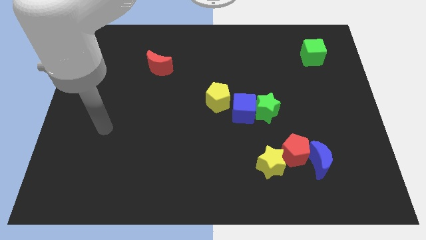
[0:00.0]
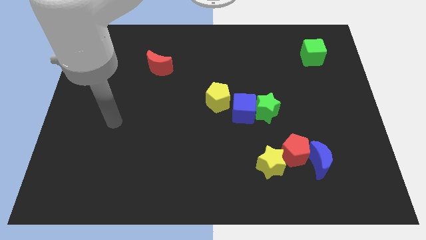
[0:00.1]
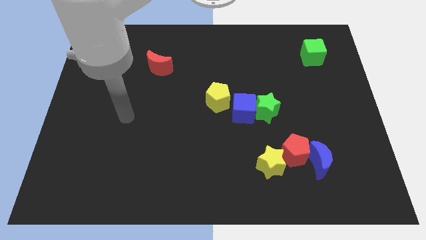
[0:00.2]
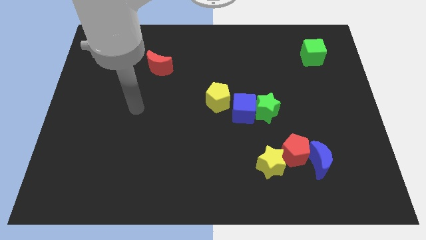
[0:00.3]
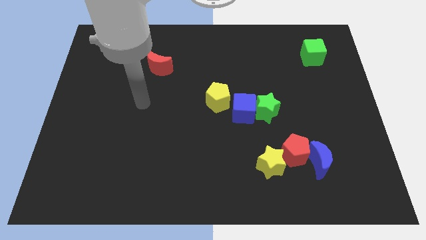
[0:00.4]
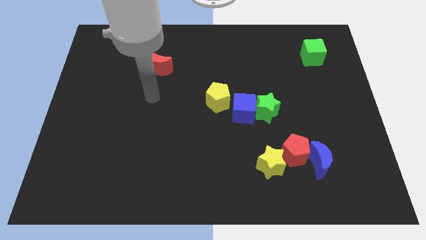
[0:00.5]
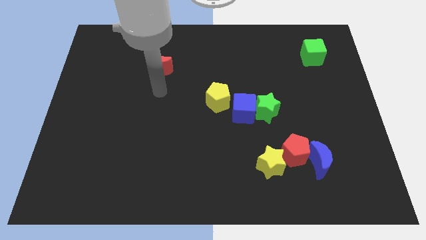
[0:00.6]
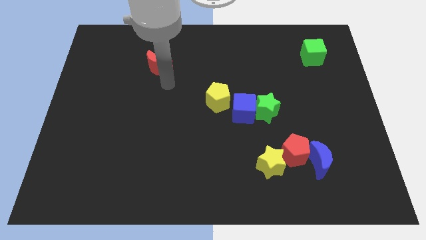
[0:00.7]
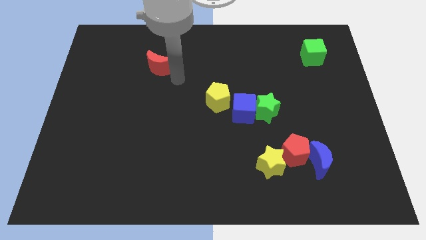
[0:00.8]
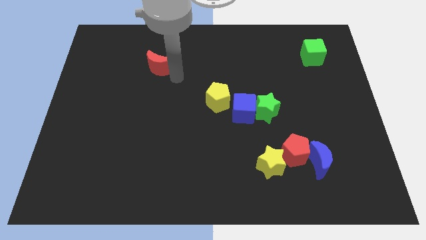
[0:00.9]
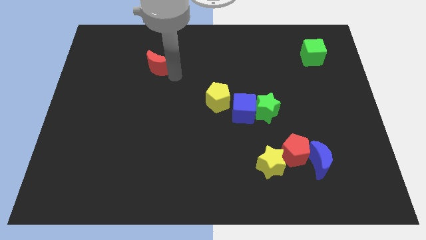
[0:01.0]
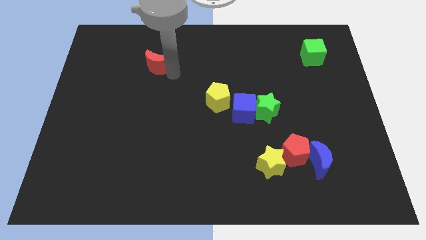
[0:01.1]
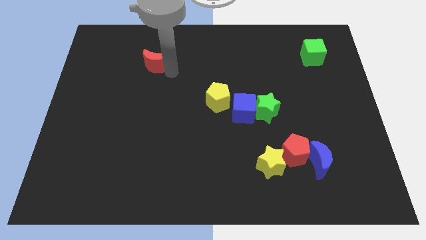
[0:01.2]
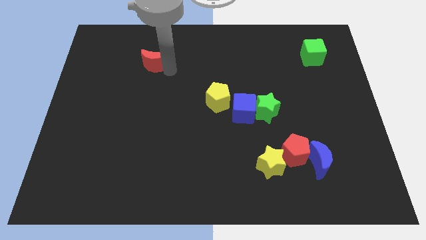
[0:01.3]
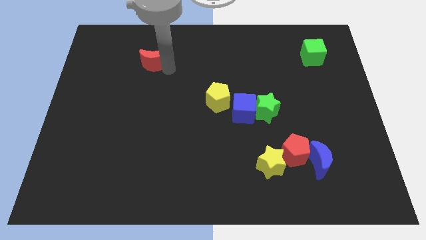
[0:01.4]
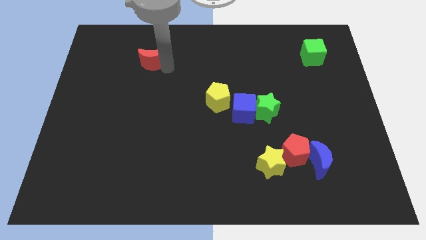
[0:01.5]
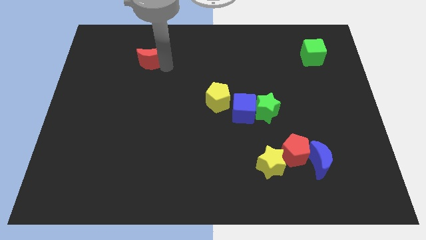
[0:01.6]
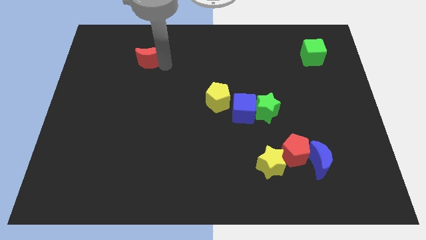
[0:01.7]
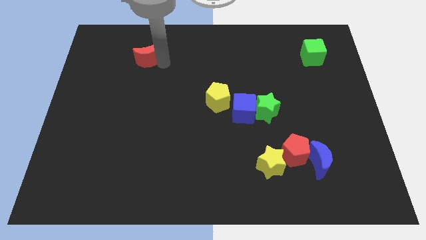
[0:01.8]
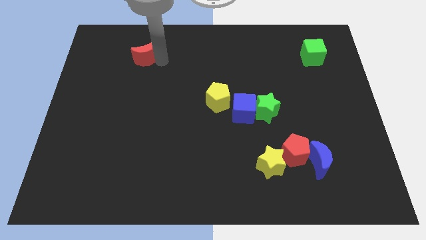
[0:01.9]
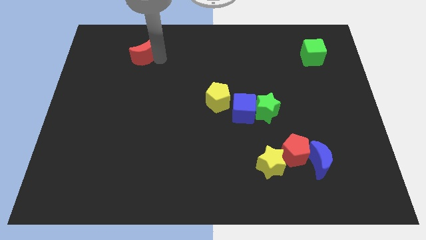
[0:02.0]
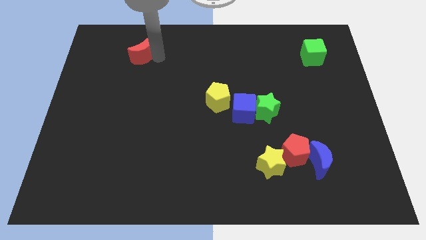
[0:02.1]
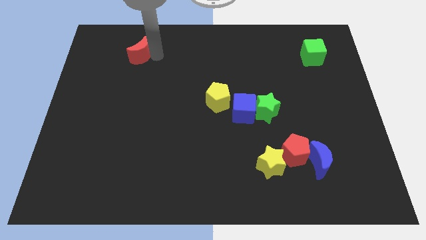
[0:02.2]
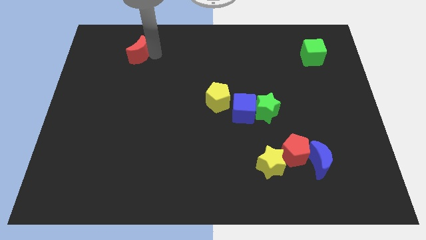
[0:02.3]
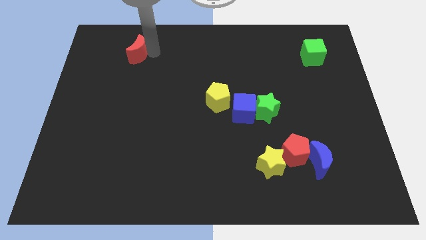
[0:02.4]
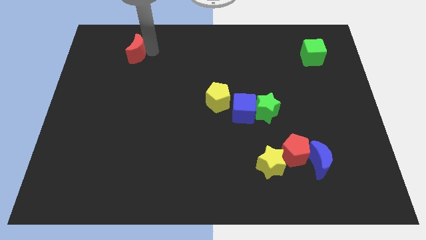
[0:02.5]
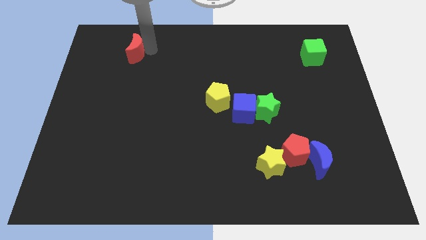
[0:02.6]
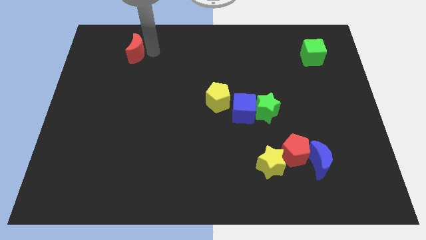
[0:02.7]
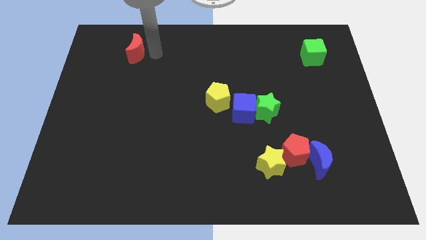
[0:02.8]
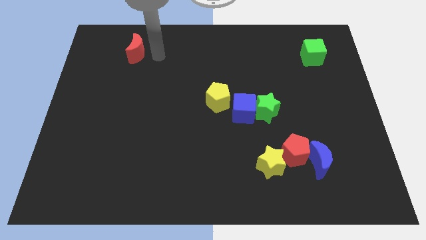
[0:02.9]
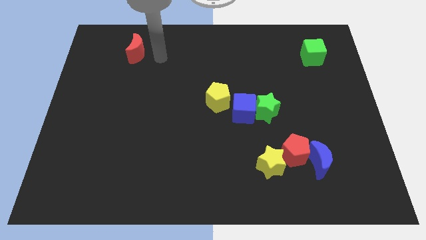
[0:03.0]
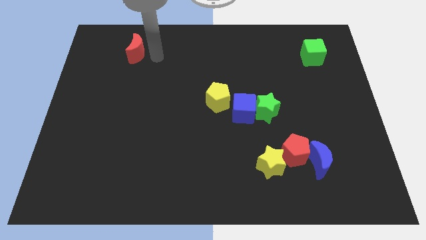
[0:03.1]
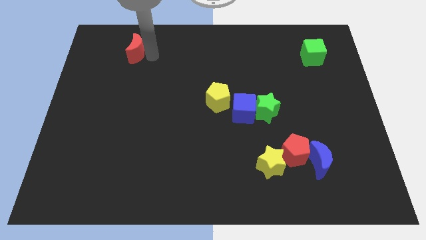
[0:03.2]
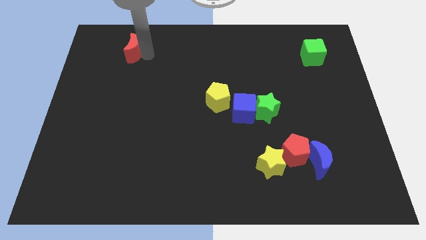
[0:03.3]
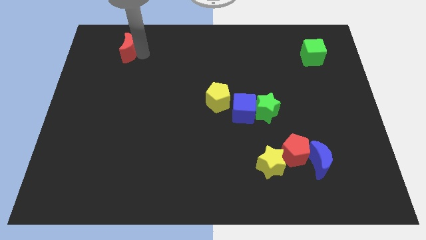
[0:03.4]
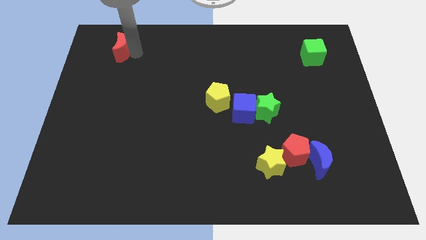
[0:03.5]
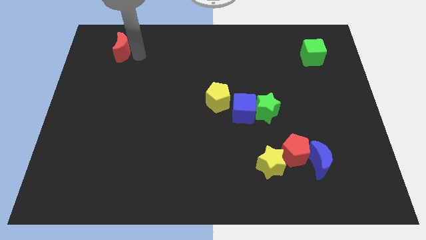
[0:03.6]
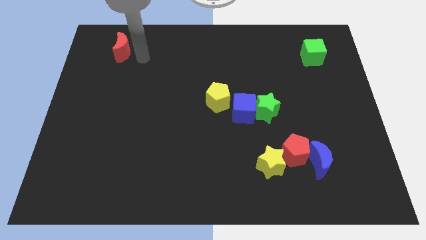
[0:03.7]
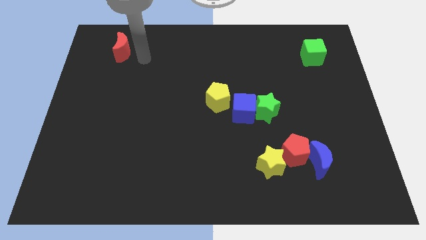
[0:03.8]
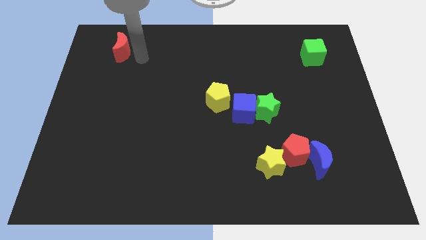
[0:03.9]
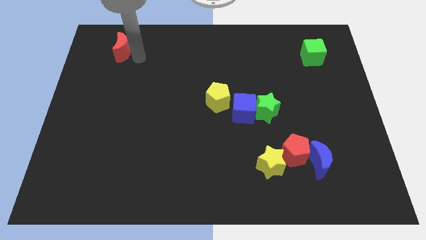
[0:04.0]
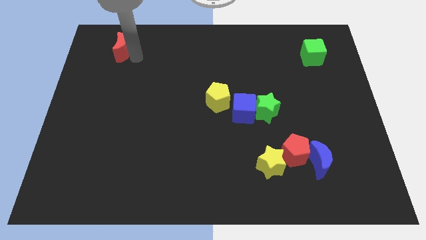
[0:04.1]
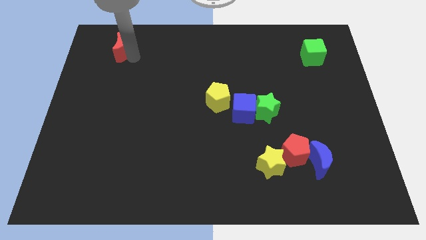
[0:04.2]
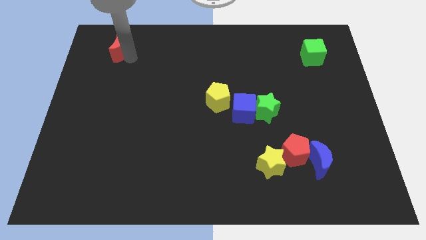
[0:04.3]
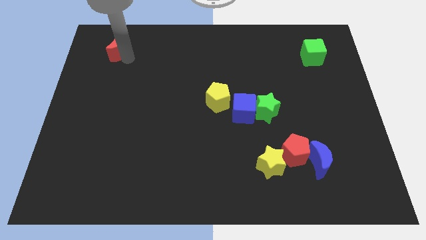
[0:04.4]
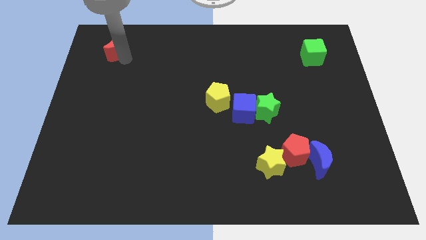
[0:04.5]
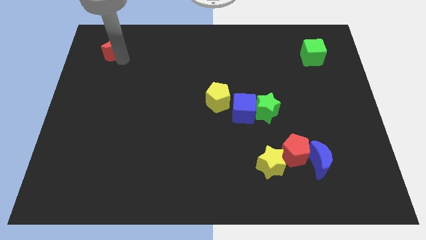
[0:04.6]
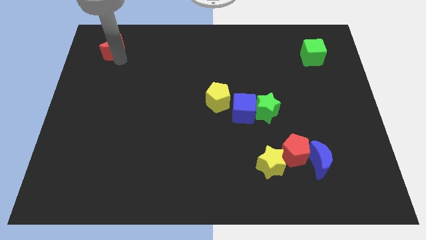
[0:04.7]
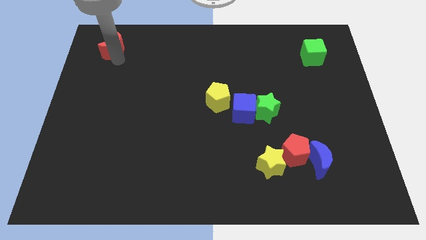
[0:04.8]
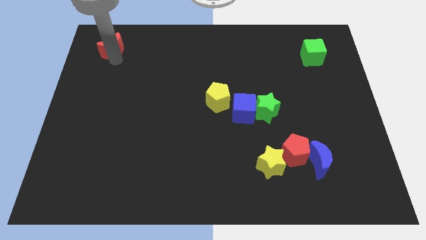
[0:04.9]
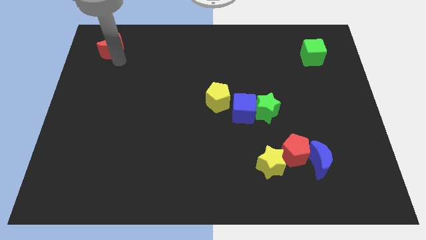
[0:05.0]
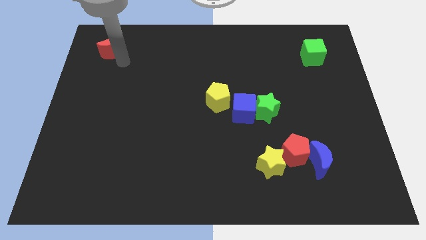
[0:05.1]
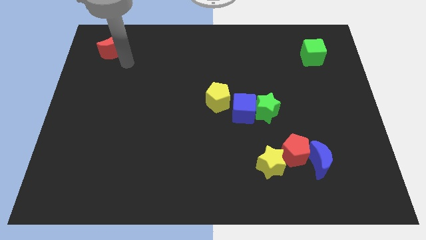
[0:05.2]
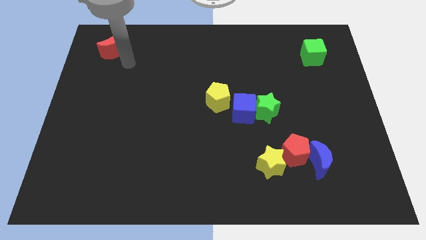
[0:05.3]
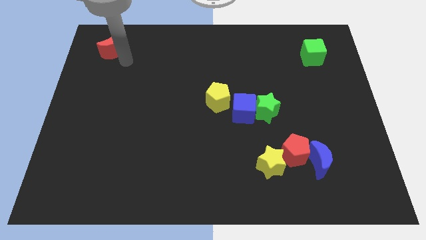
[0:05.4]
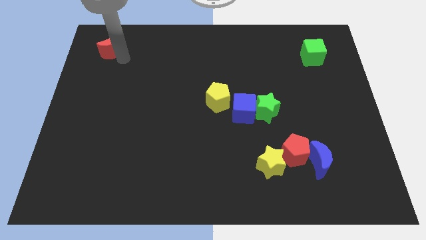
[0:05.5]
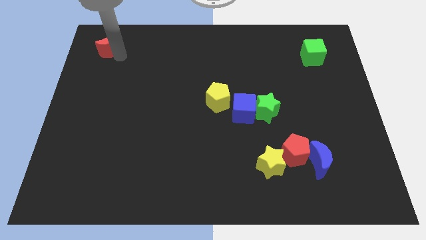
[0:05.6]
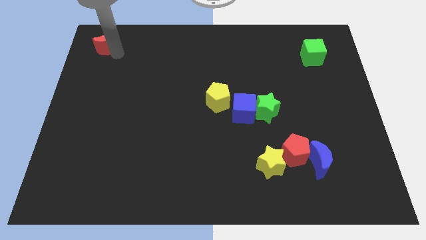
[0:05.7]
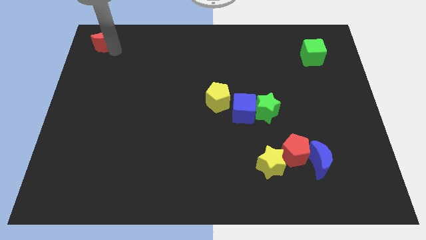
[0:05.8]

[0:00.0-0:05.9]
slide the red moon to the top left corner

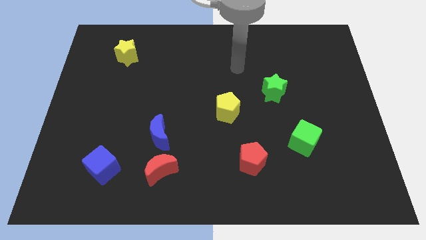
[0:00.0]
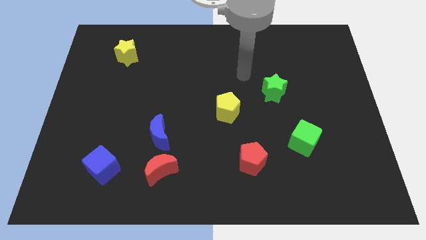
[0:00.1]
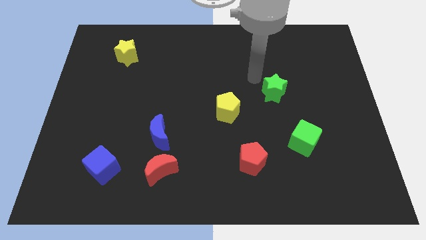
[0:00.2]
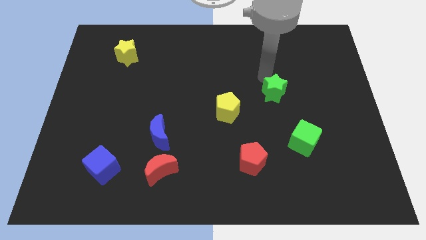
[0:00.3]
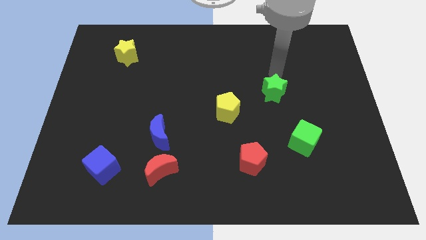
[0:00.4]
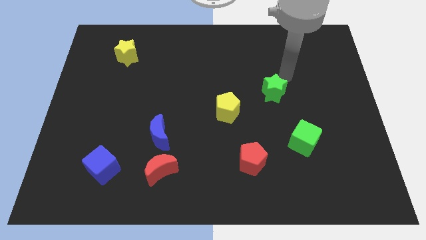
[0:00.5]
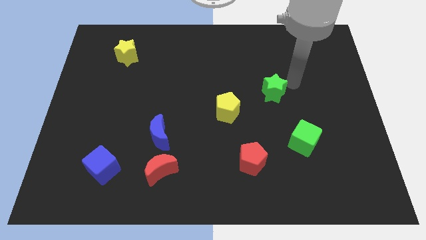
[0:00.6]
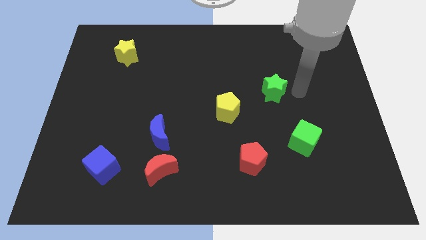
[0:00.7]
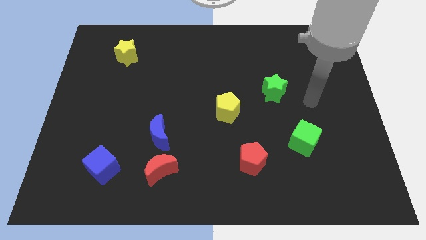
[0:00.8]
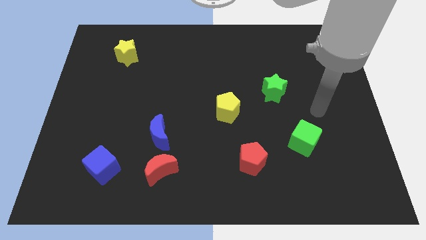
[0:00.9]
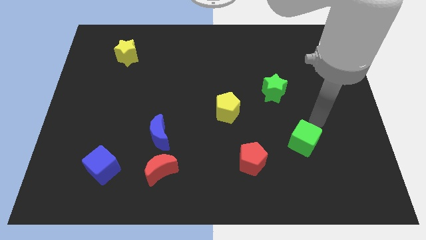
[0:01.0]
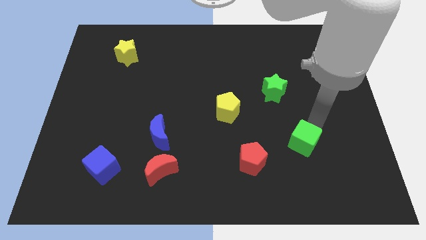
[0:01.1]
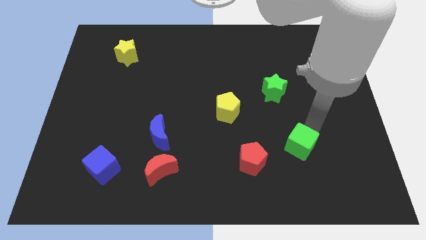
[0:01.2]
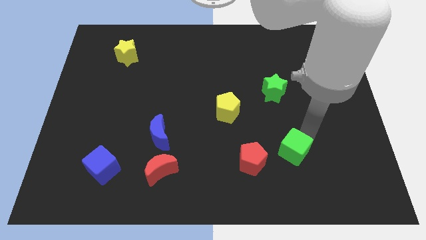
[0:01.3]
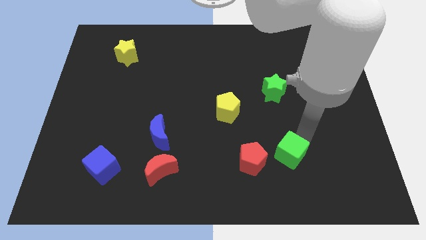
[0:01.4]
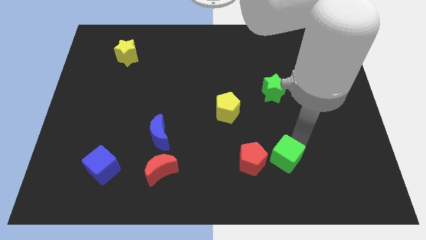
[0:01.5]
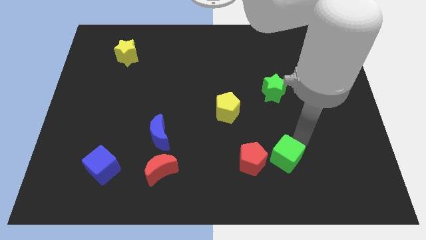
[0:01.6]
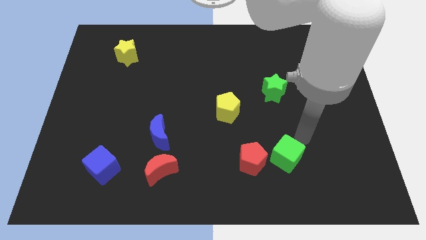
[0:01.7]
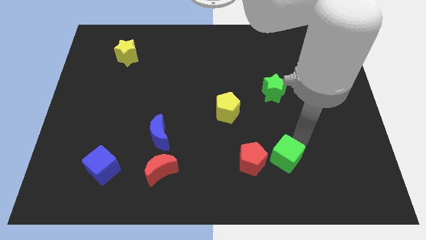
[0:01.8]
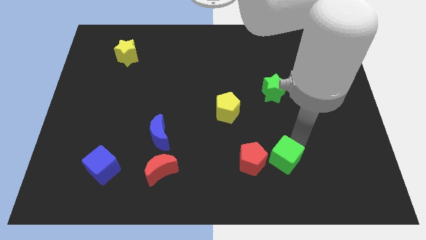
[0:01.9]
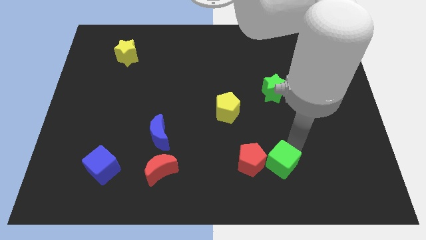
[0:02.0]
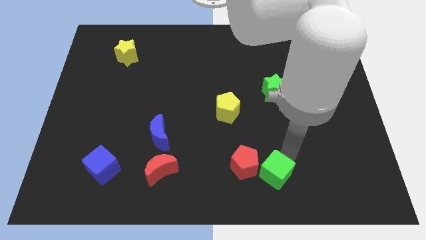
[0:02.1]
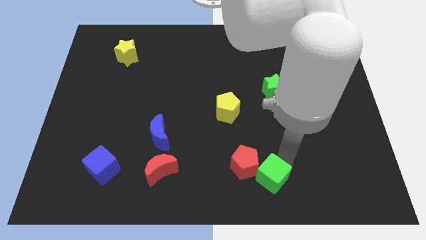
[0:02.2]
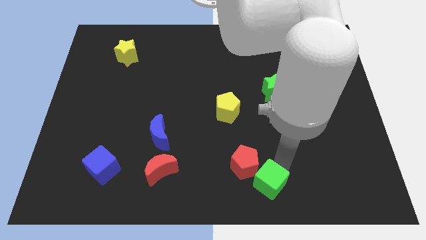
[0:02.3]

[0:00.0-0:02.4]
put the green cube to the bottom
